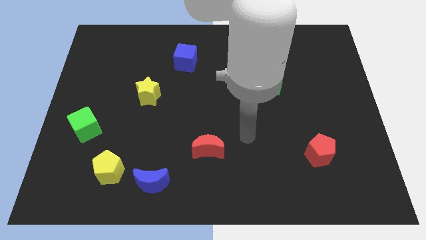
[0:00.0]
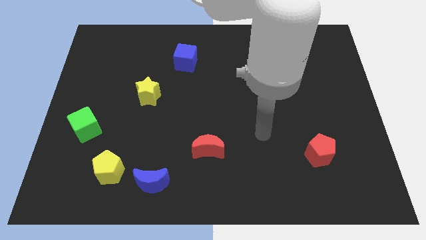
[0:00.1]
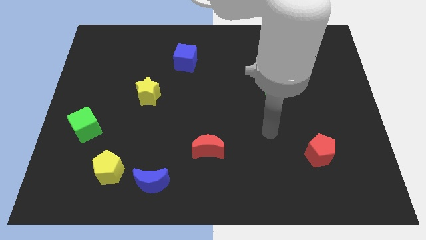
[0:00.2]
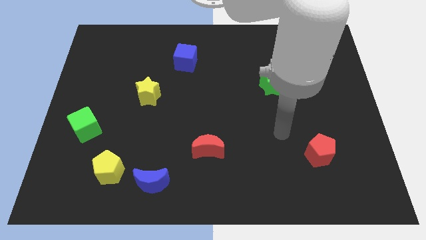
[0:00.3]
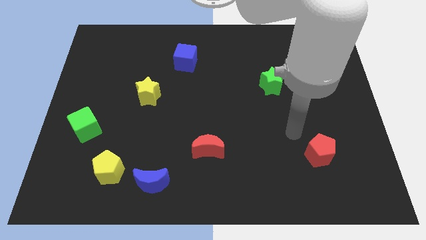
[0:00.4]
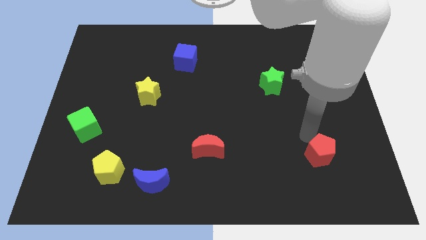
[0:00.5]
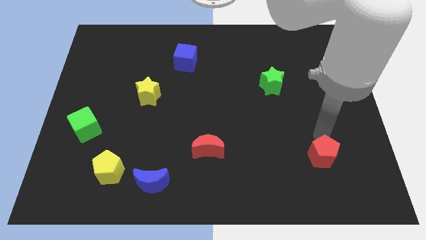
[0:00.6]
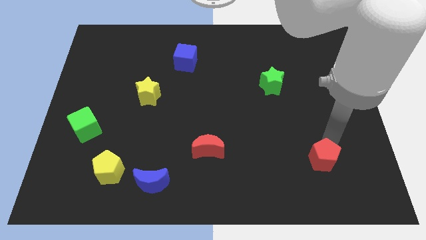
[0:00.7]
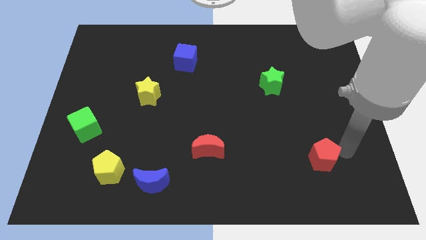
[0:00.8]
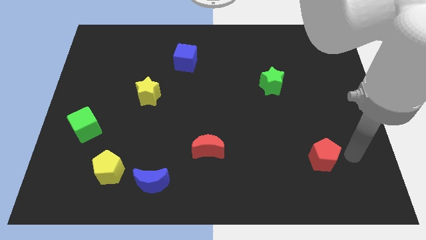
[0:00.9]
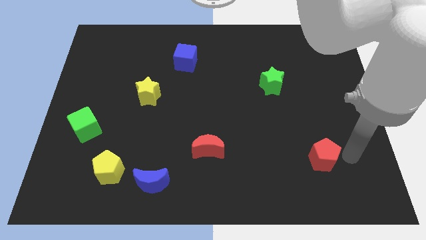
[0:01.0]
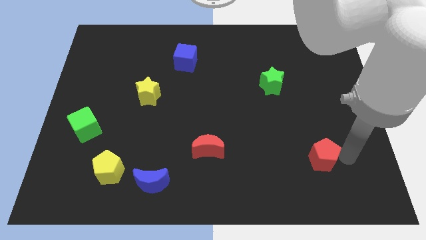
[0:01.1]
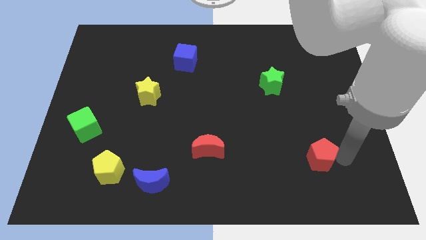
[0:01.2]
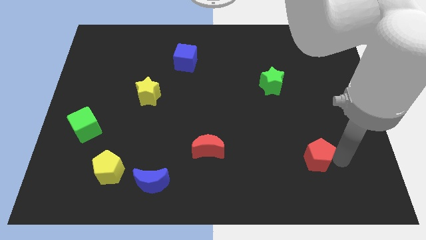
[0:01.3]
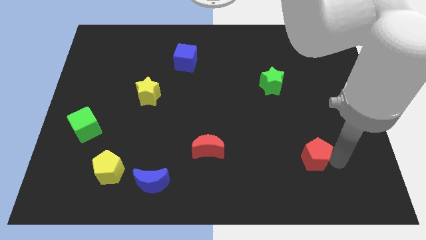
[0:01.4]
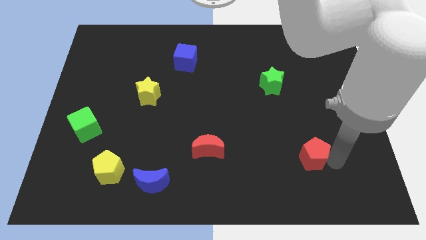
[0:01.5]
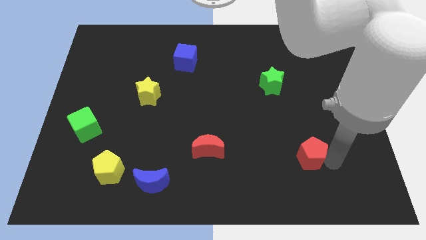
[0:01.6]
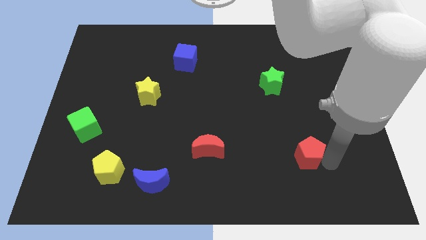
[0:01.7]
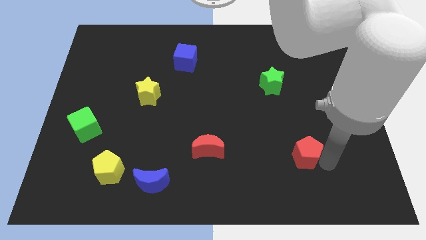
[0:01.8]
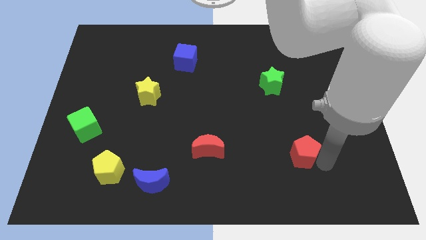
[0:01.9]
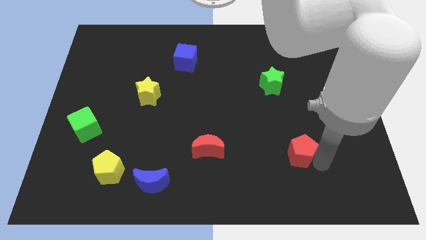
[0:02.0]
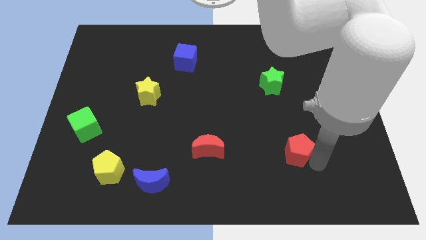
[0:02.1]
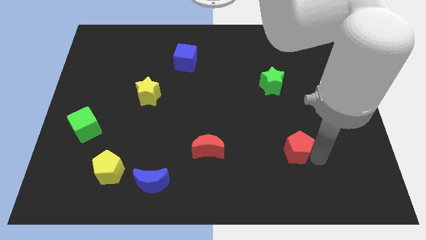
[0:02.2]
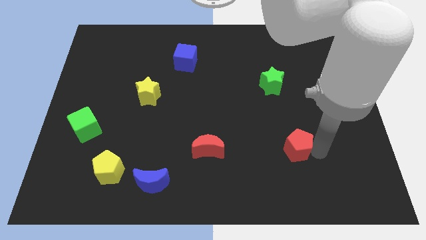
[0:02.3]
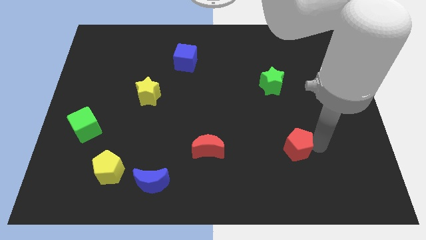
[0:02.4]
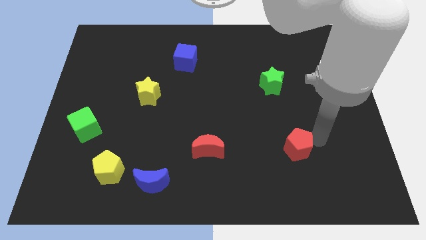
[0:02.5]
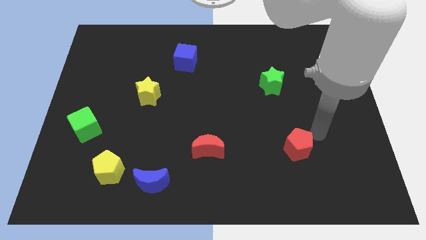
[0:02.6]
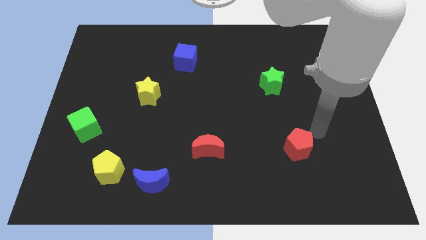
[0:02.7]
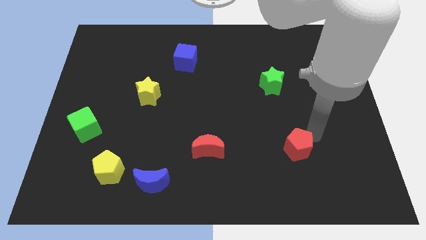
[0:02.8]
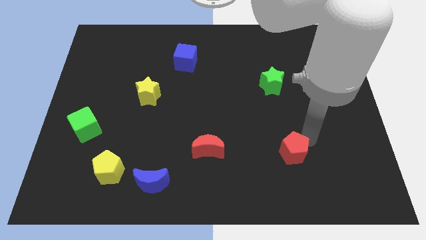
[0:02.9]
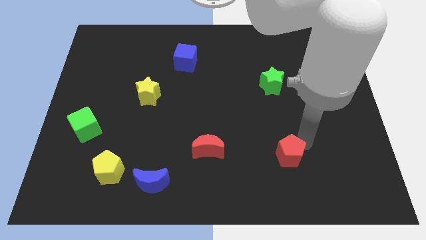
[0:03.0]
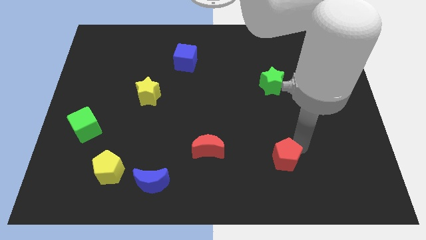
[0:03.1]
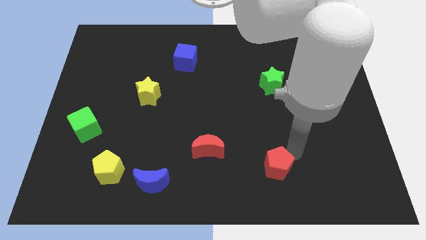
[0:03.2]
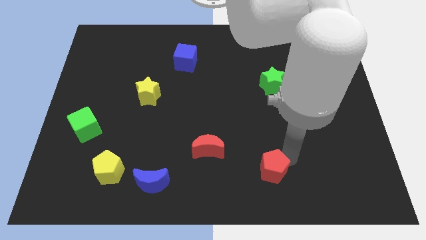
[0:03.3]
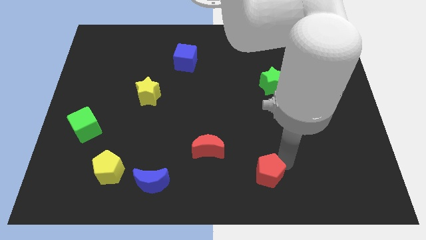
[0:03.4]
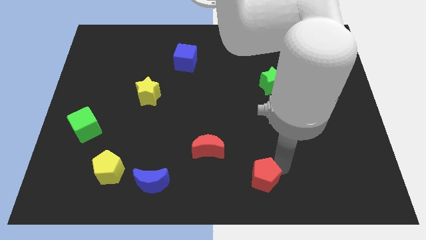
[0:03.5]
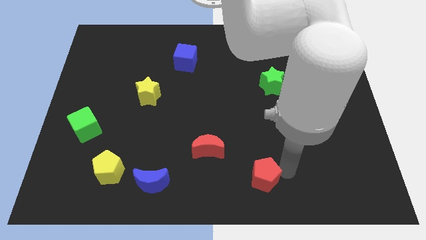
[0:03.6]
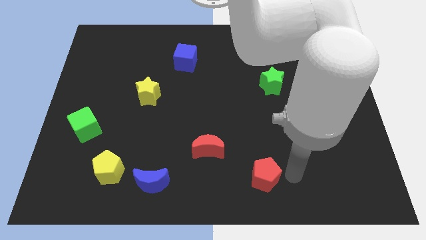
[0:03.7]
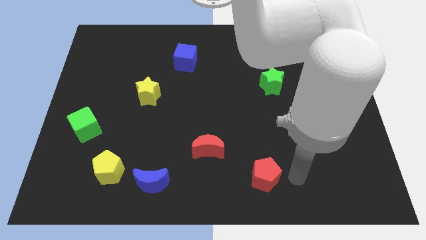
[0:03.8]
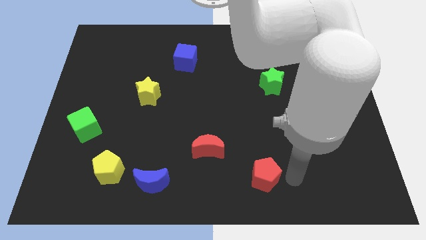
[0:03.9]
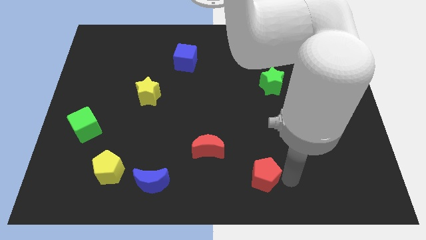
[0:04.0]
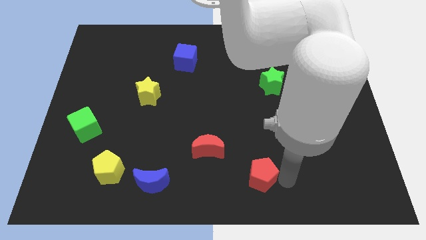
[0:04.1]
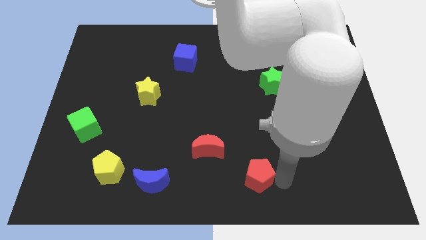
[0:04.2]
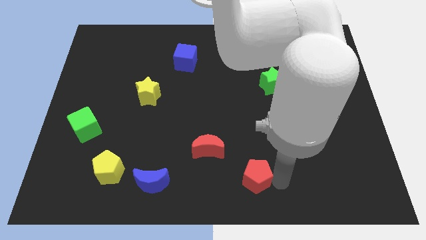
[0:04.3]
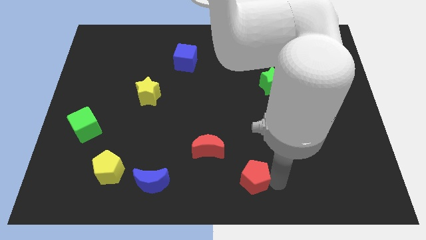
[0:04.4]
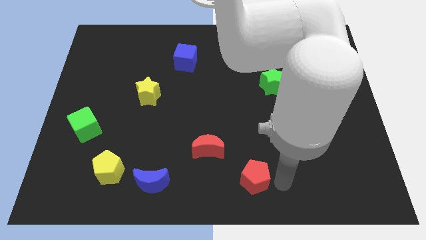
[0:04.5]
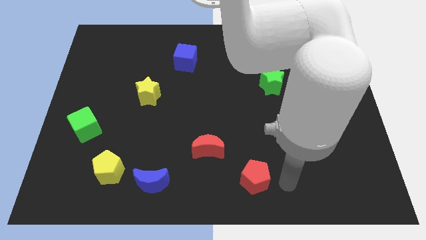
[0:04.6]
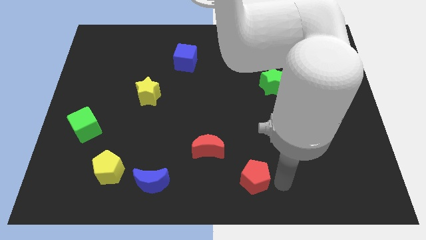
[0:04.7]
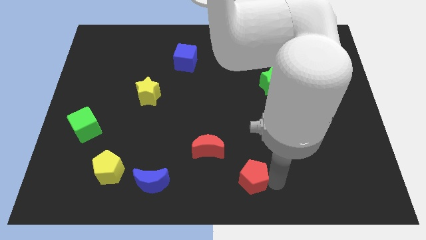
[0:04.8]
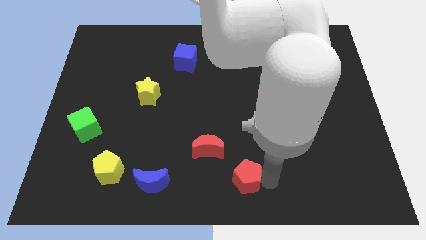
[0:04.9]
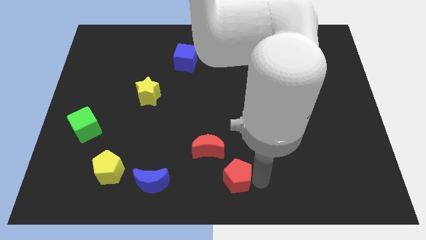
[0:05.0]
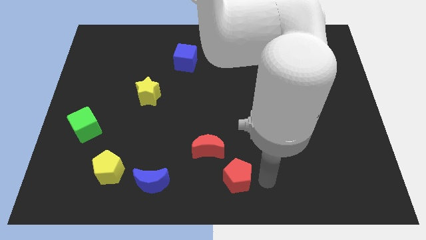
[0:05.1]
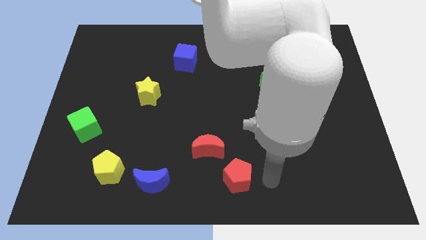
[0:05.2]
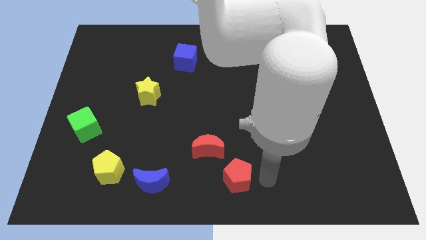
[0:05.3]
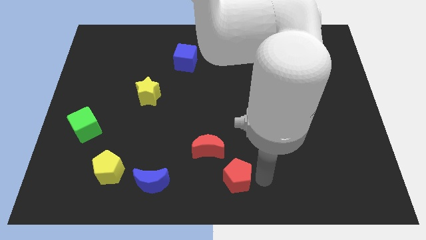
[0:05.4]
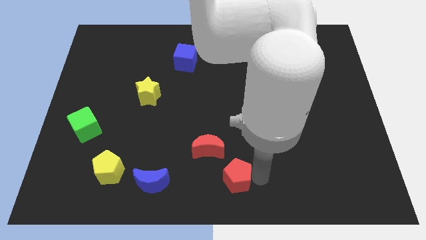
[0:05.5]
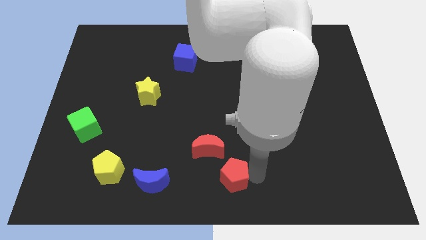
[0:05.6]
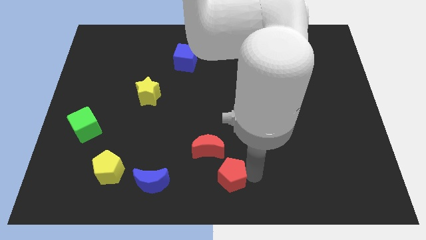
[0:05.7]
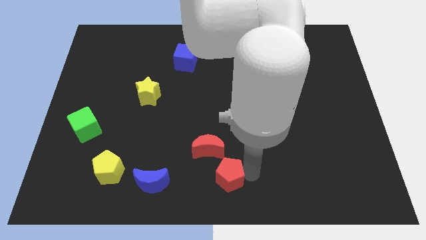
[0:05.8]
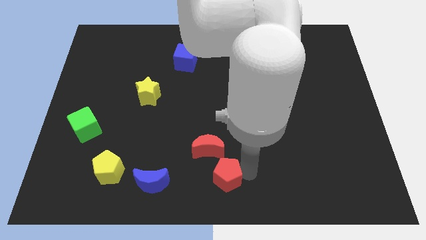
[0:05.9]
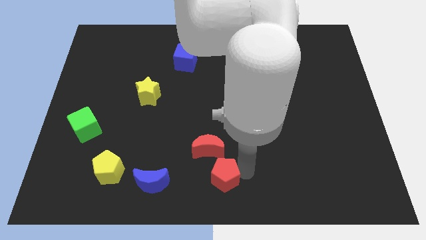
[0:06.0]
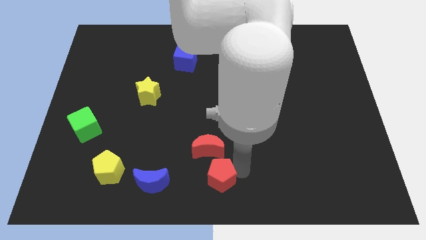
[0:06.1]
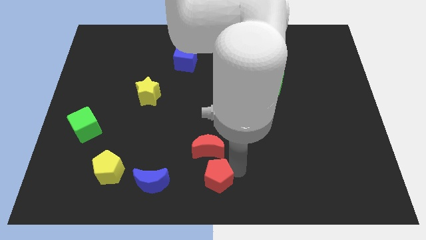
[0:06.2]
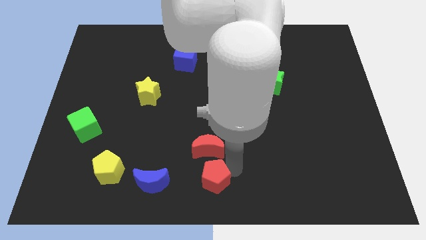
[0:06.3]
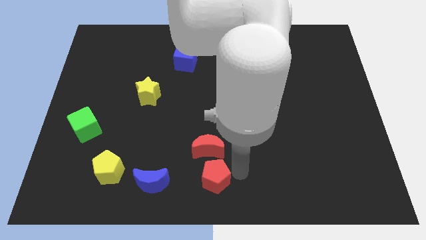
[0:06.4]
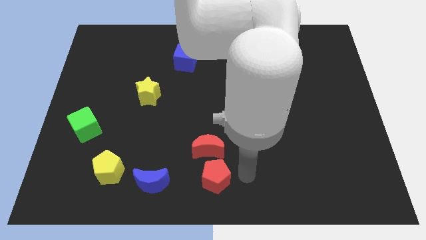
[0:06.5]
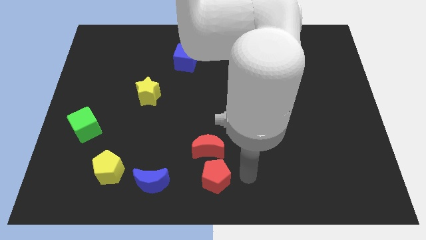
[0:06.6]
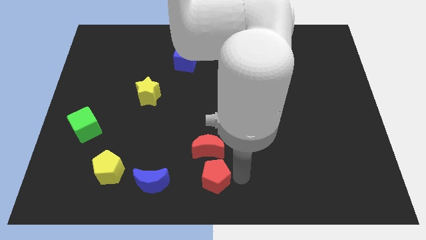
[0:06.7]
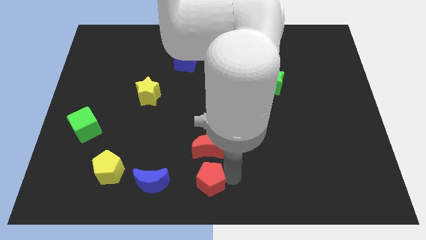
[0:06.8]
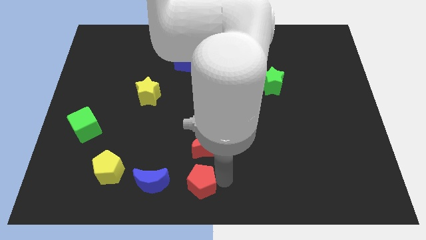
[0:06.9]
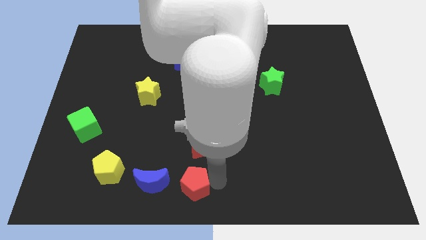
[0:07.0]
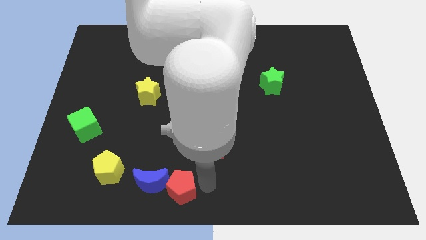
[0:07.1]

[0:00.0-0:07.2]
slide the red pentagon to the blue moon
